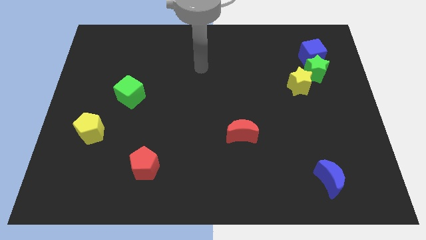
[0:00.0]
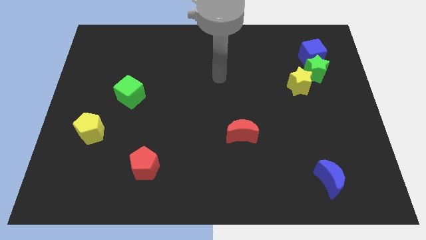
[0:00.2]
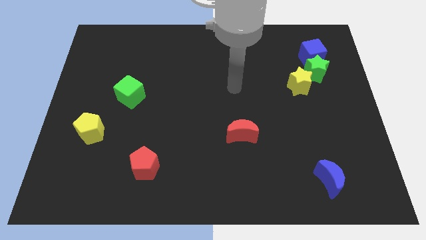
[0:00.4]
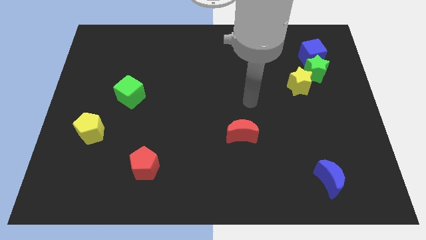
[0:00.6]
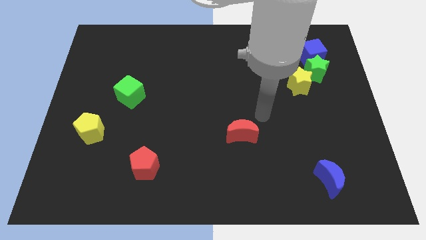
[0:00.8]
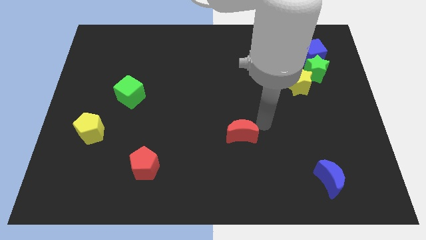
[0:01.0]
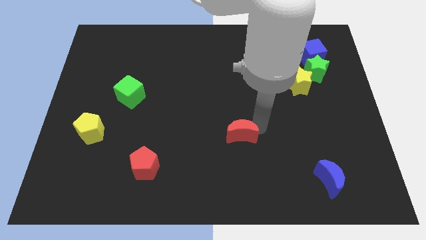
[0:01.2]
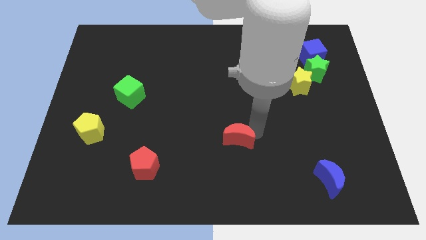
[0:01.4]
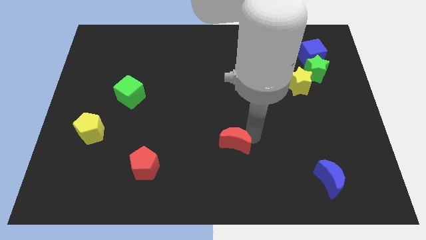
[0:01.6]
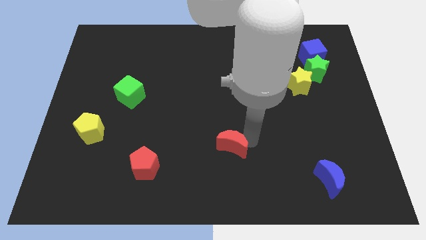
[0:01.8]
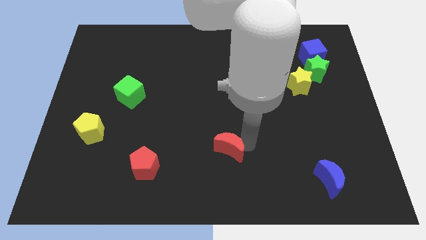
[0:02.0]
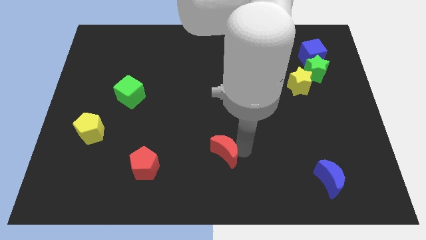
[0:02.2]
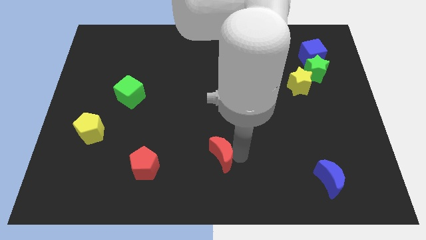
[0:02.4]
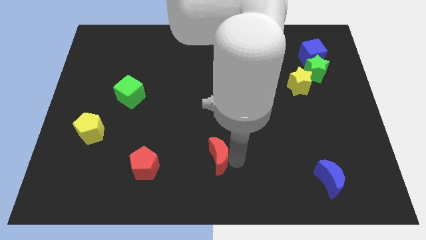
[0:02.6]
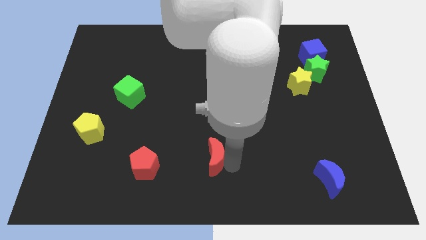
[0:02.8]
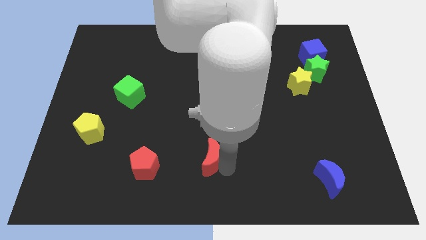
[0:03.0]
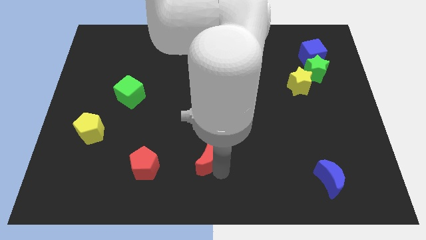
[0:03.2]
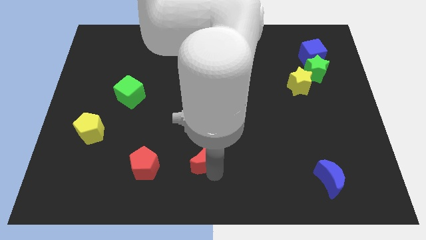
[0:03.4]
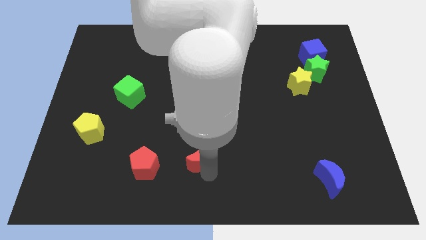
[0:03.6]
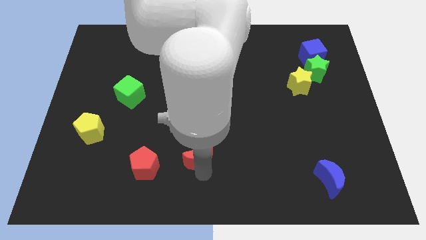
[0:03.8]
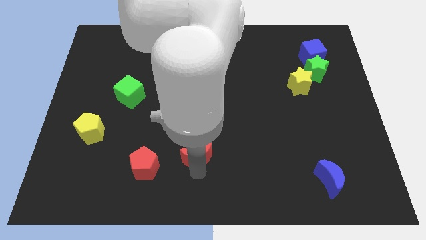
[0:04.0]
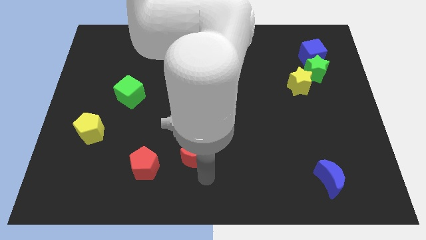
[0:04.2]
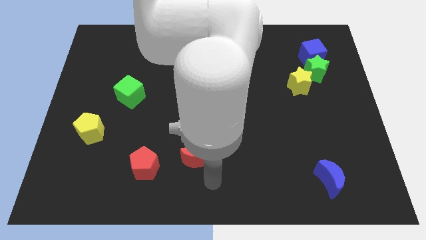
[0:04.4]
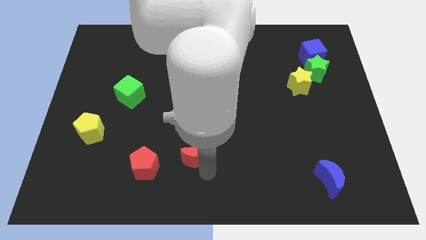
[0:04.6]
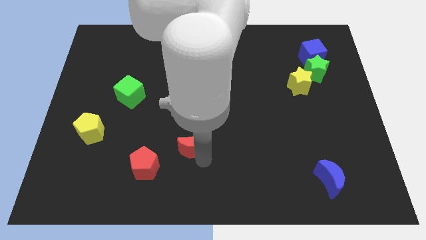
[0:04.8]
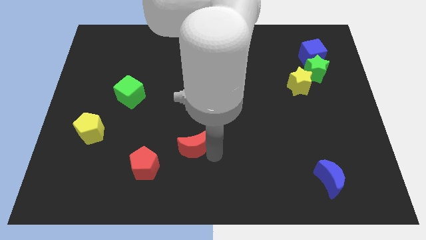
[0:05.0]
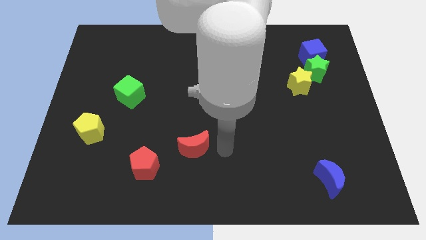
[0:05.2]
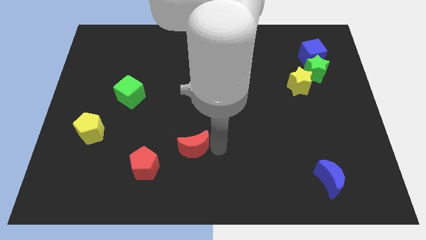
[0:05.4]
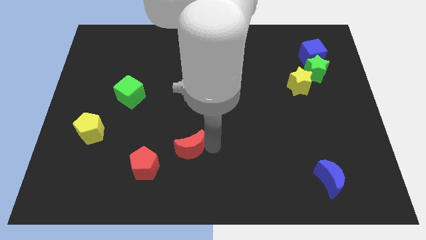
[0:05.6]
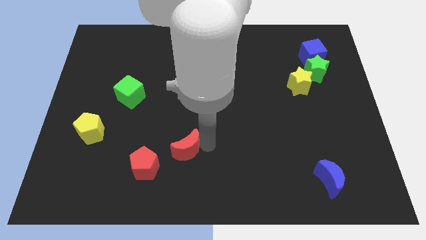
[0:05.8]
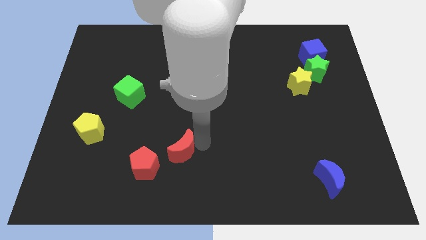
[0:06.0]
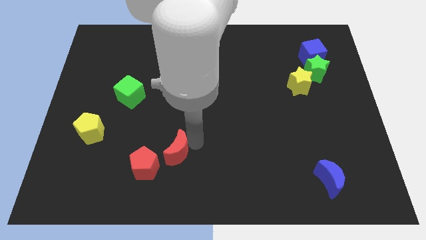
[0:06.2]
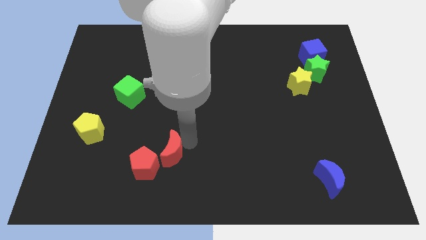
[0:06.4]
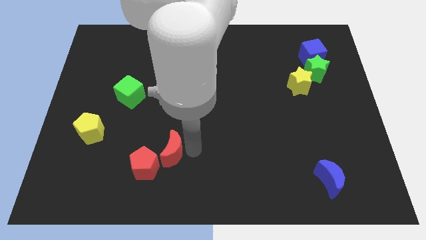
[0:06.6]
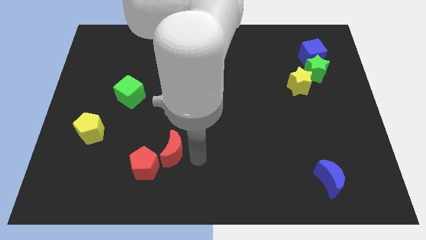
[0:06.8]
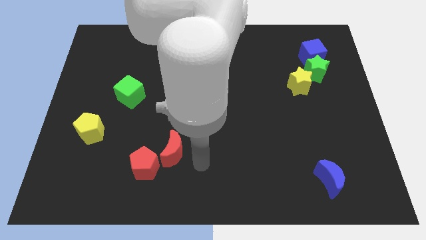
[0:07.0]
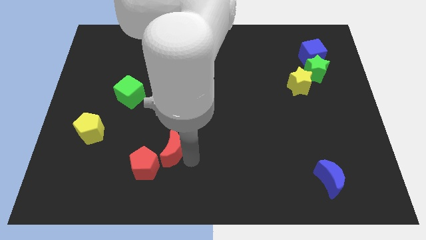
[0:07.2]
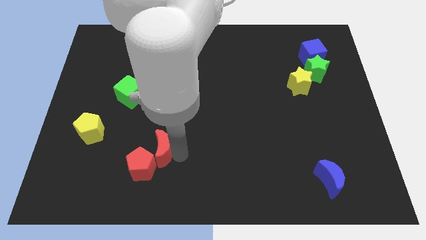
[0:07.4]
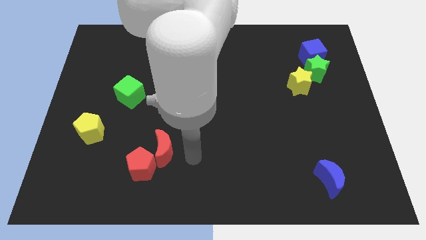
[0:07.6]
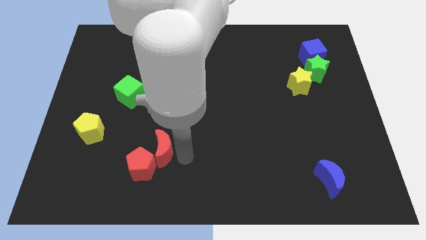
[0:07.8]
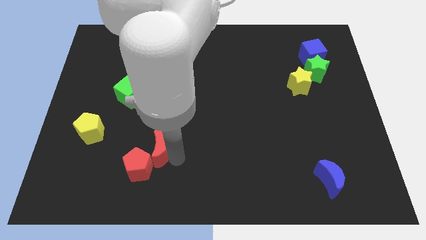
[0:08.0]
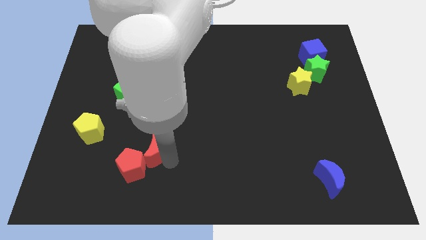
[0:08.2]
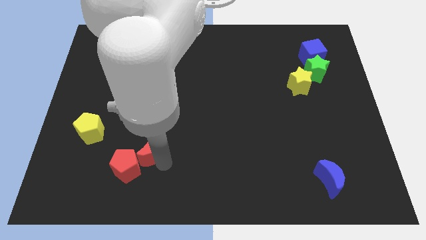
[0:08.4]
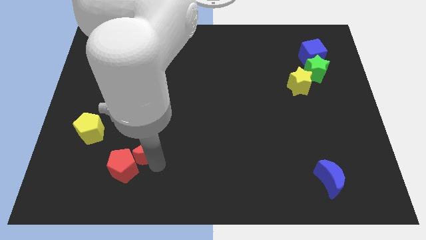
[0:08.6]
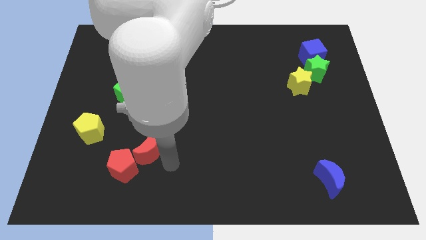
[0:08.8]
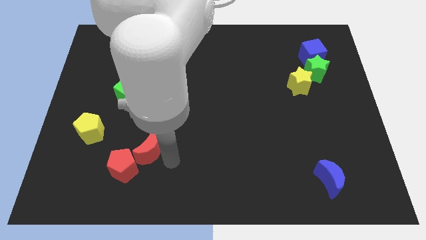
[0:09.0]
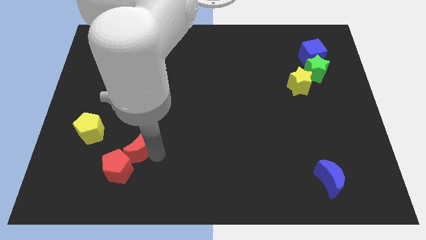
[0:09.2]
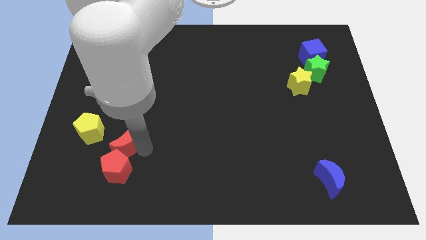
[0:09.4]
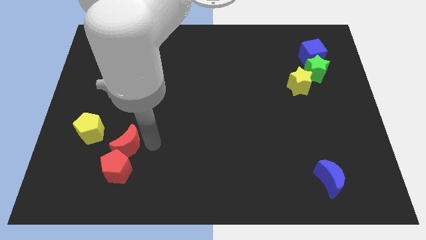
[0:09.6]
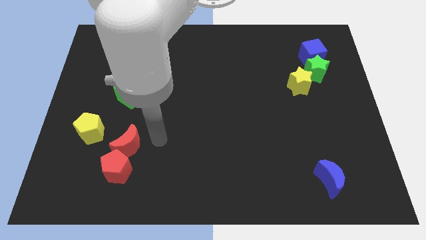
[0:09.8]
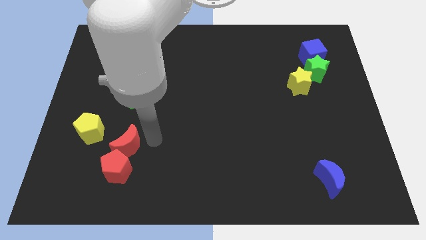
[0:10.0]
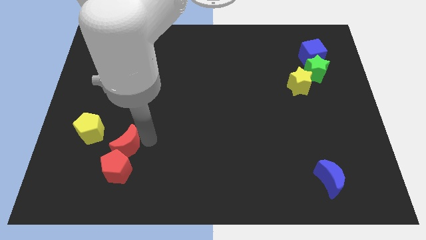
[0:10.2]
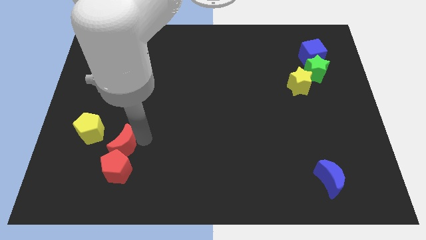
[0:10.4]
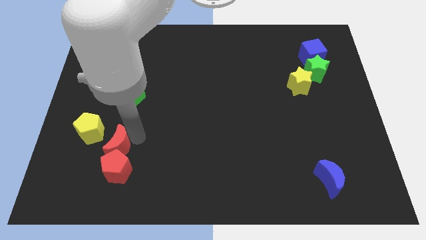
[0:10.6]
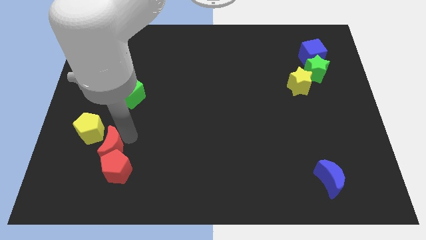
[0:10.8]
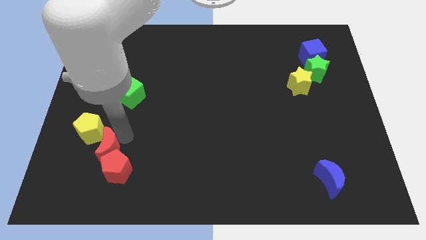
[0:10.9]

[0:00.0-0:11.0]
move the red moon to the bottom of the yellow pentagon

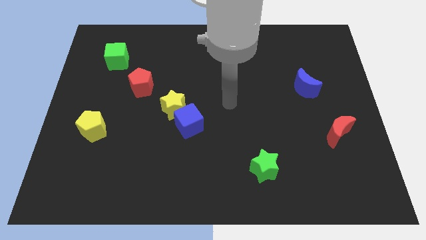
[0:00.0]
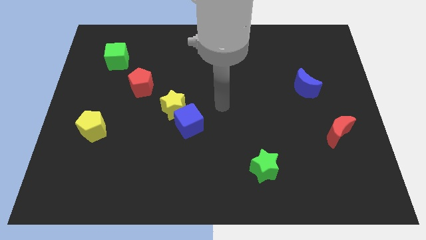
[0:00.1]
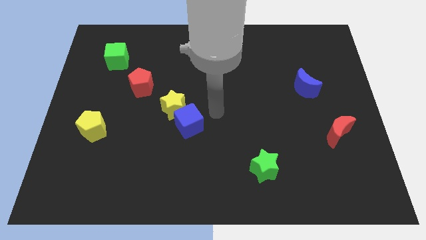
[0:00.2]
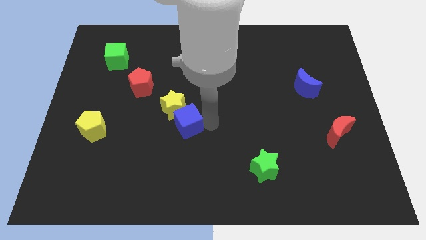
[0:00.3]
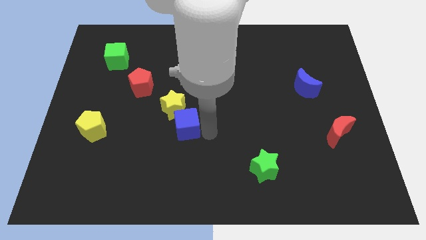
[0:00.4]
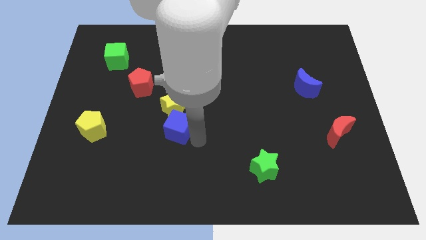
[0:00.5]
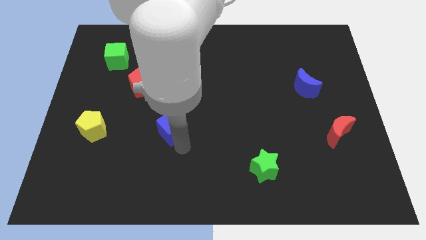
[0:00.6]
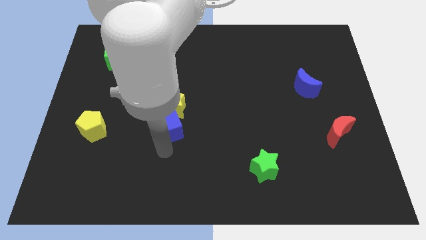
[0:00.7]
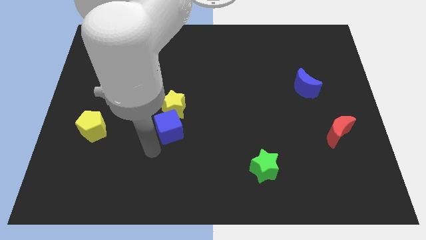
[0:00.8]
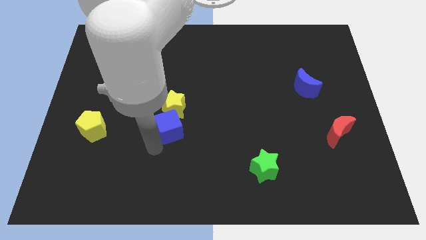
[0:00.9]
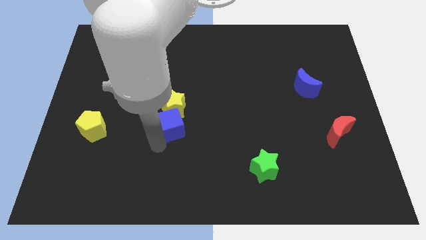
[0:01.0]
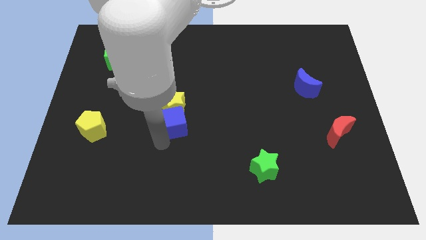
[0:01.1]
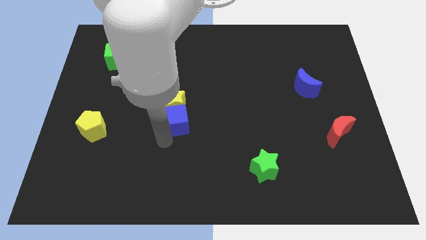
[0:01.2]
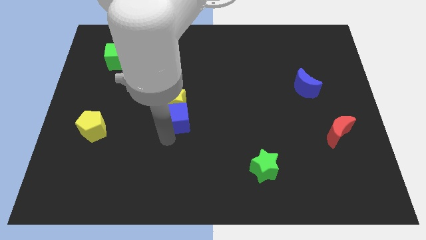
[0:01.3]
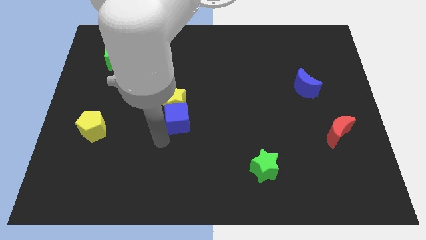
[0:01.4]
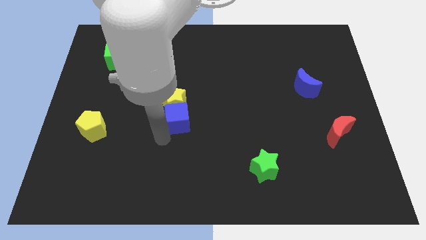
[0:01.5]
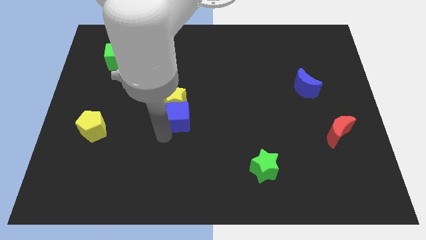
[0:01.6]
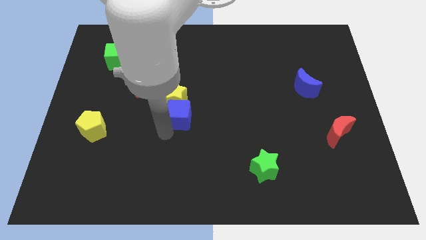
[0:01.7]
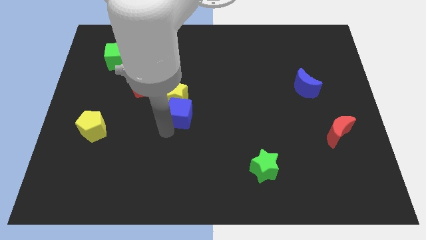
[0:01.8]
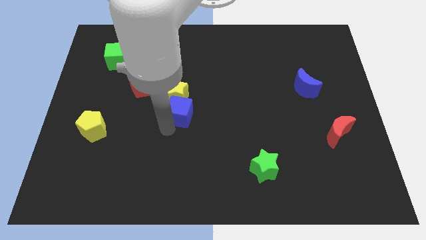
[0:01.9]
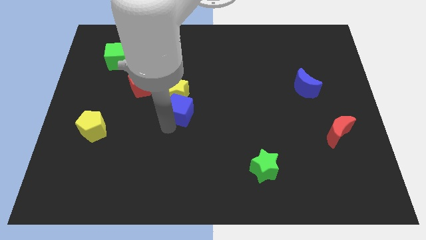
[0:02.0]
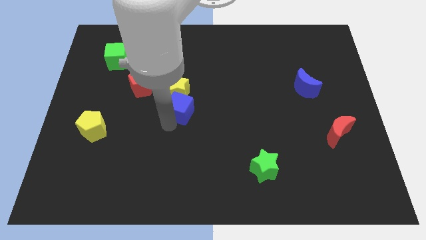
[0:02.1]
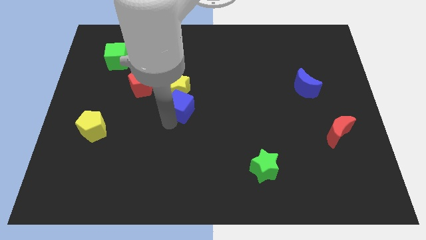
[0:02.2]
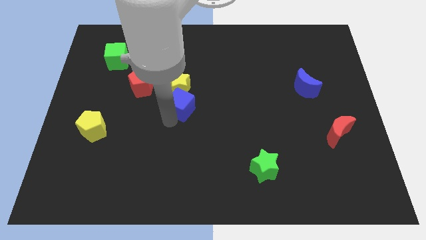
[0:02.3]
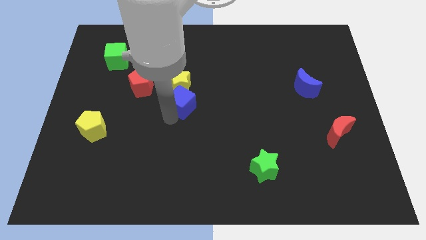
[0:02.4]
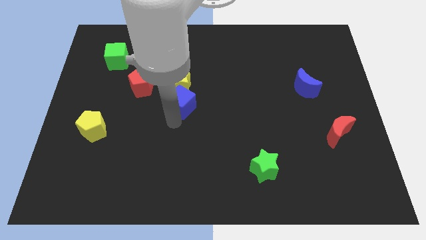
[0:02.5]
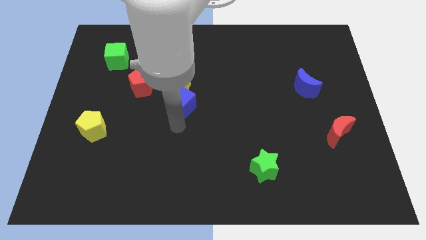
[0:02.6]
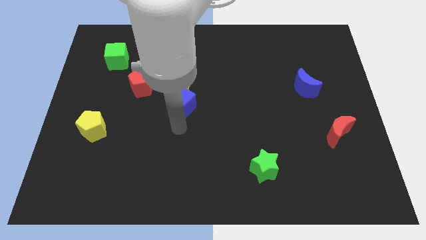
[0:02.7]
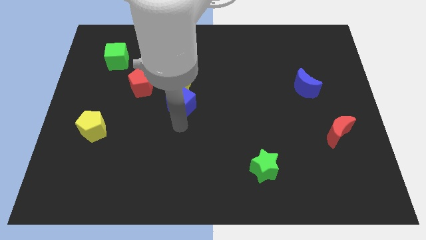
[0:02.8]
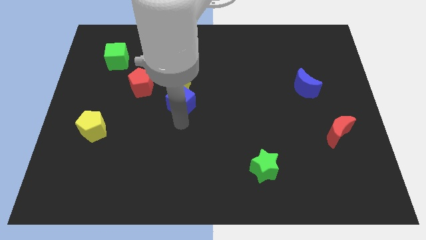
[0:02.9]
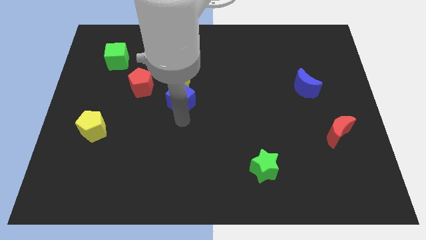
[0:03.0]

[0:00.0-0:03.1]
put the blue cube to the right side of the red pentagon
